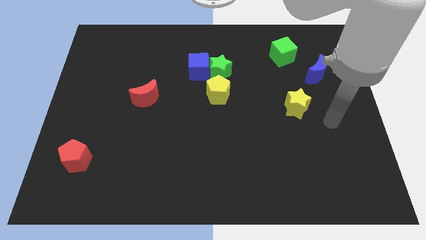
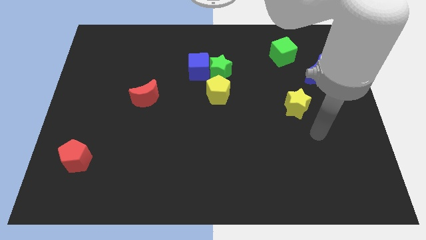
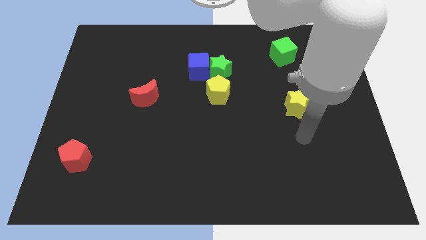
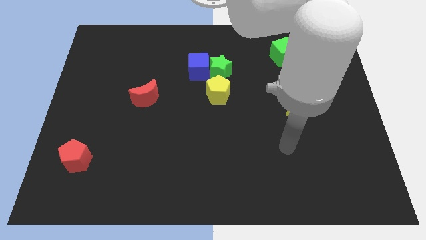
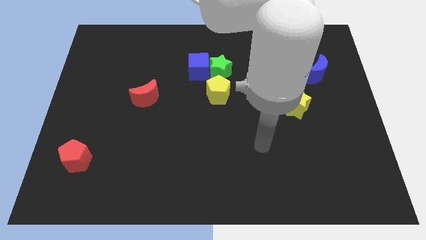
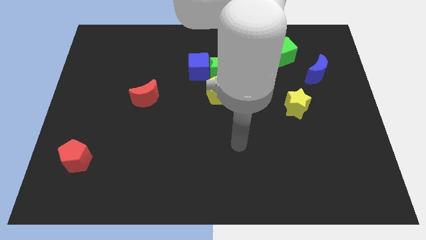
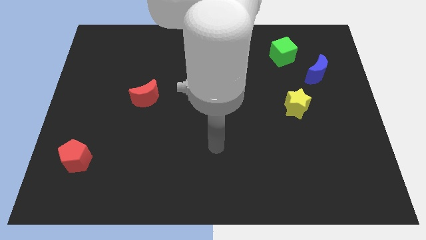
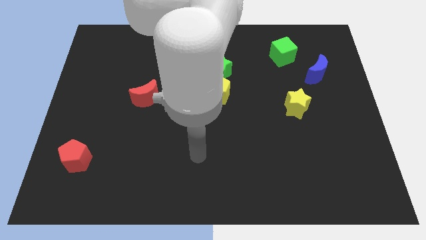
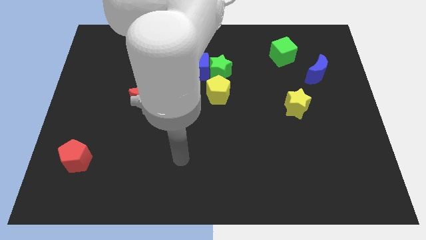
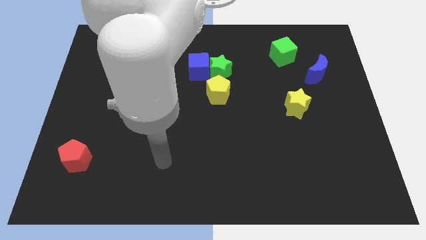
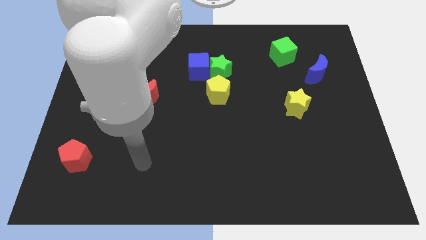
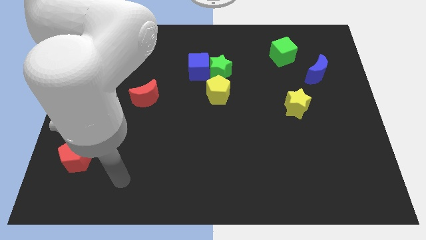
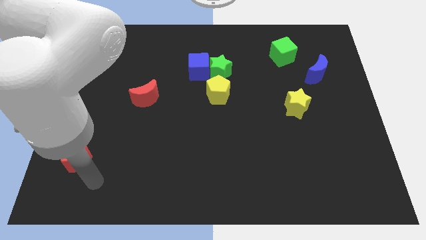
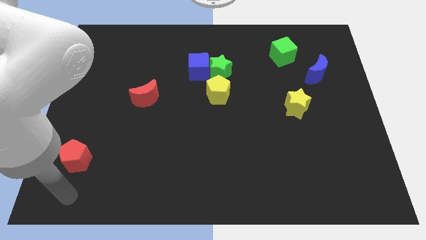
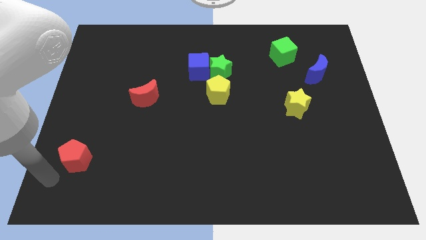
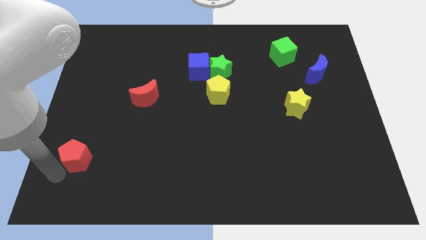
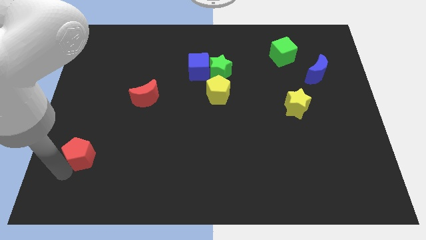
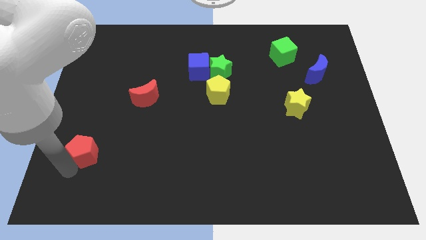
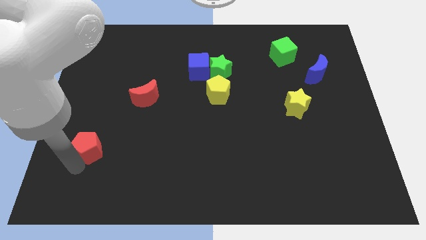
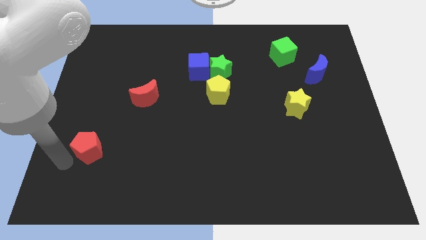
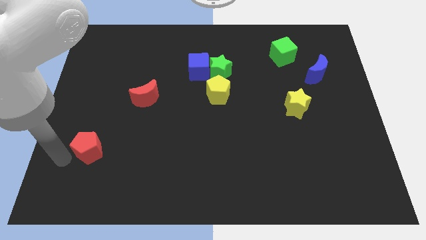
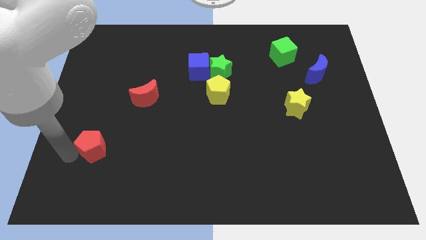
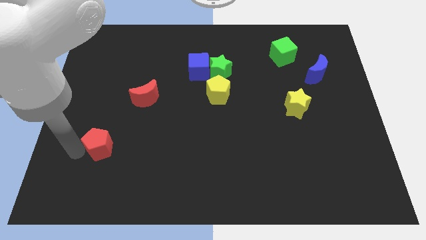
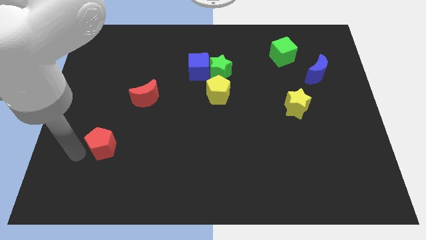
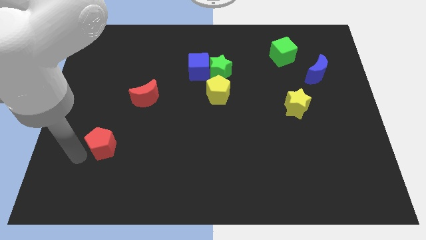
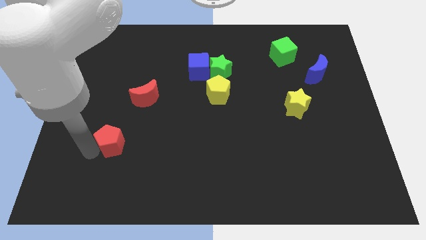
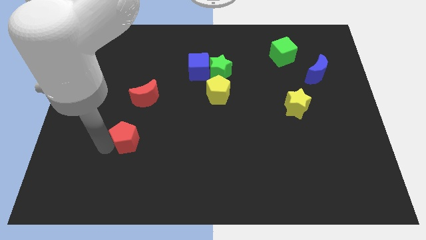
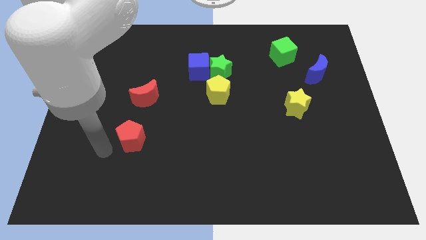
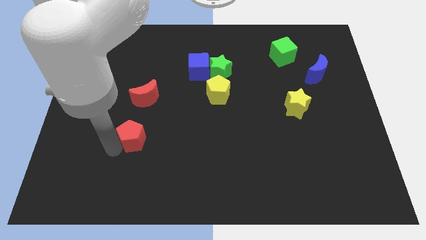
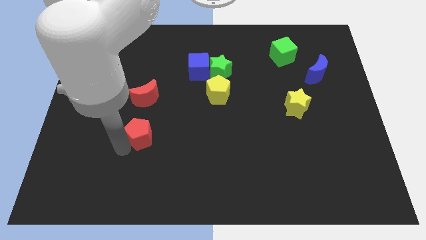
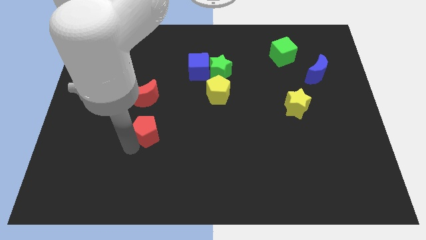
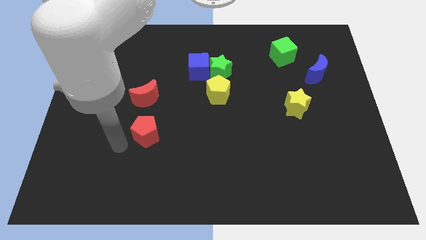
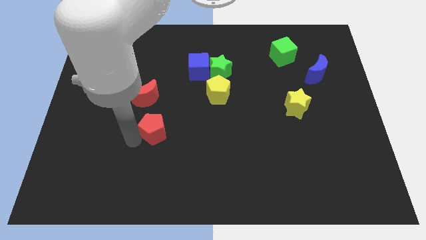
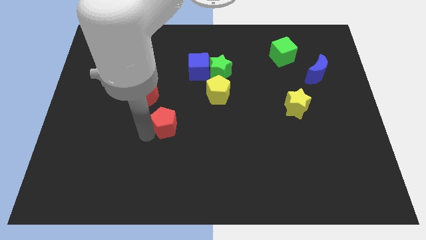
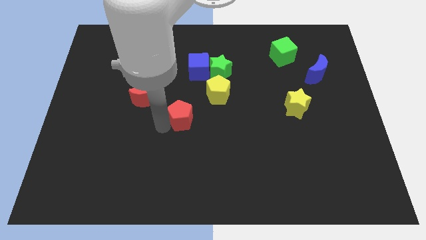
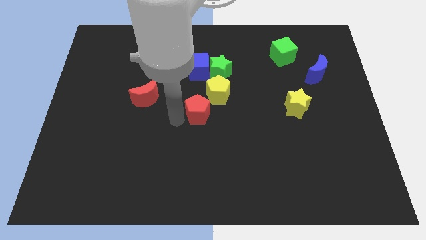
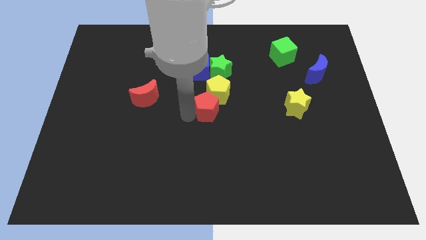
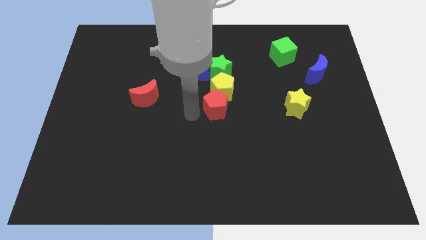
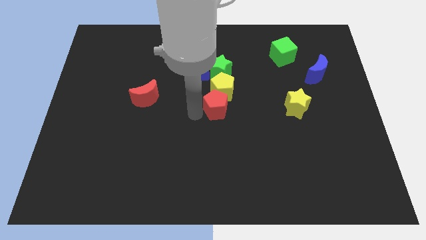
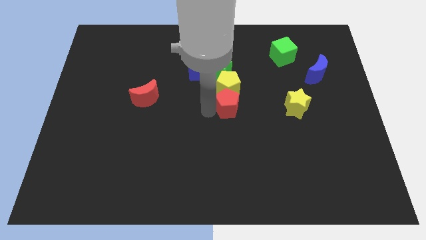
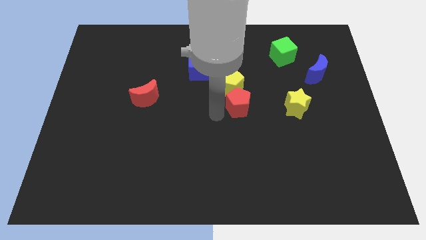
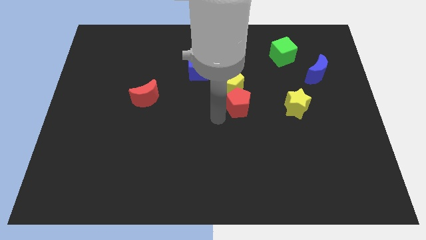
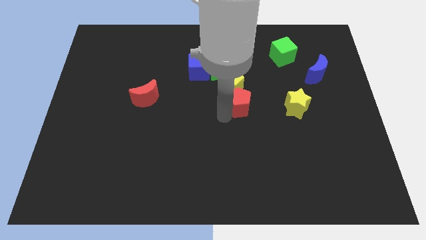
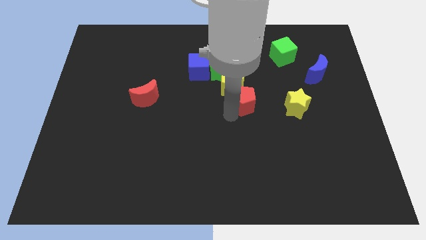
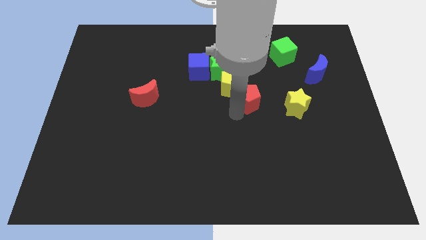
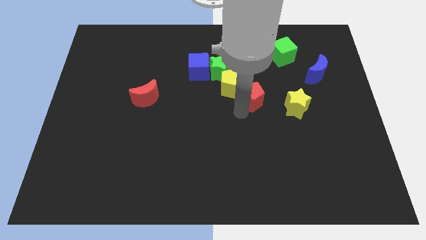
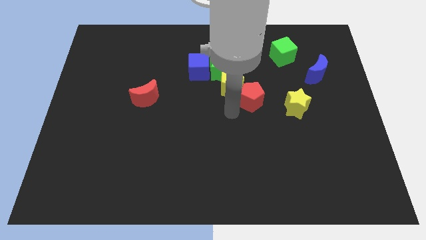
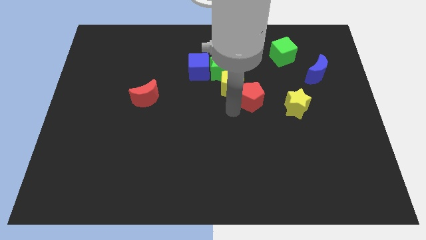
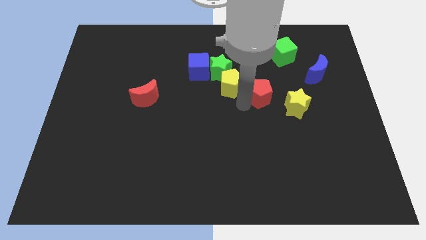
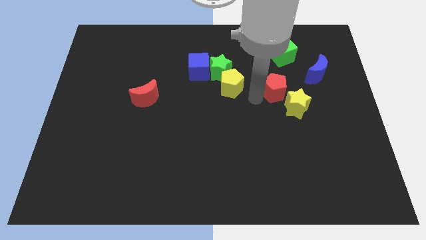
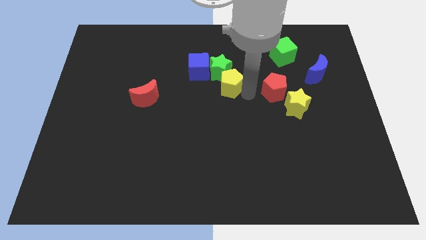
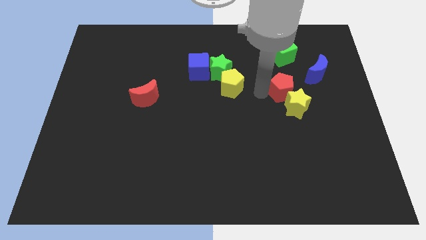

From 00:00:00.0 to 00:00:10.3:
move the red pentagon to the bottom left side of the blue moon

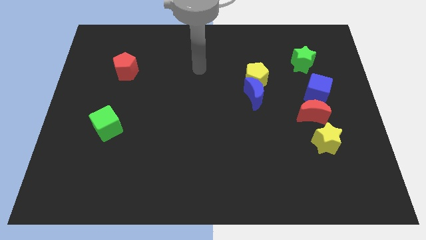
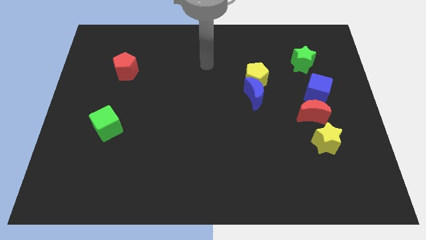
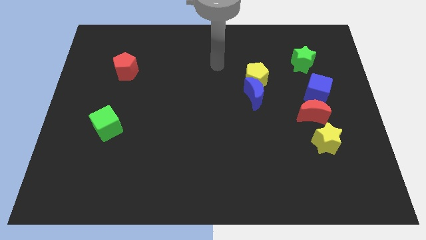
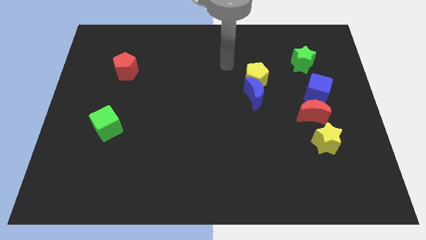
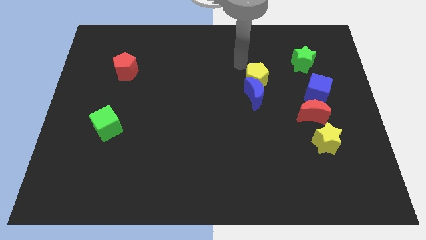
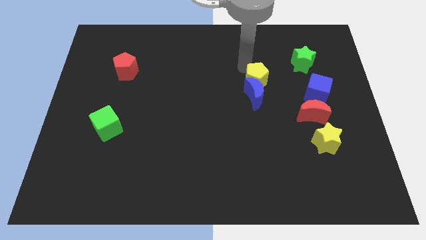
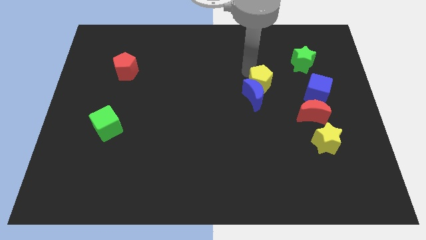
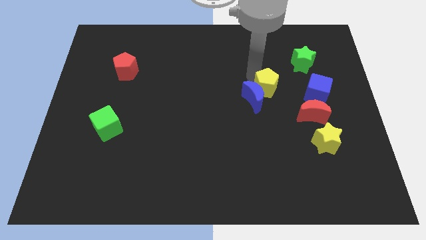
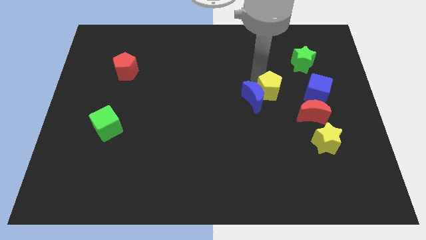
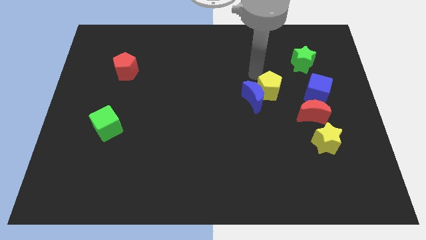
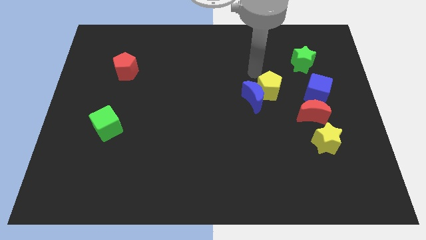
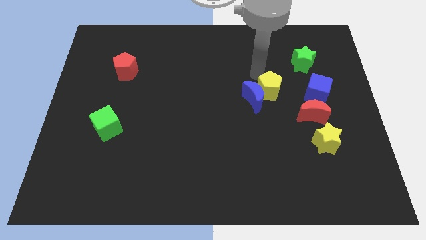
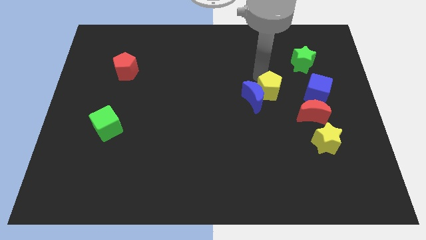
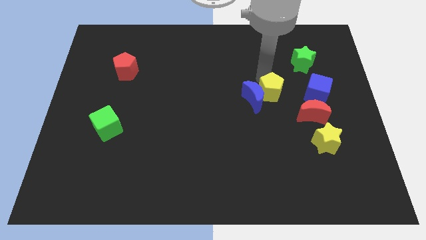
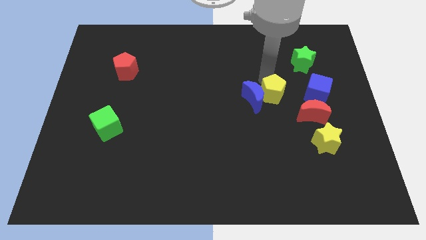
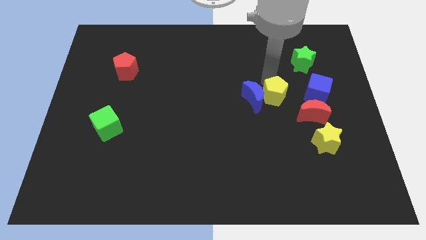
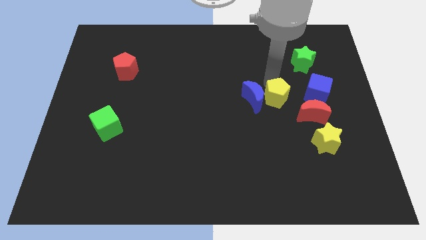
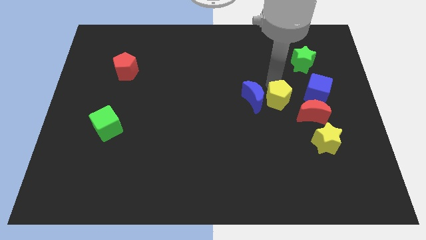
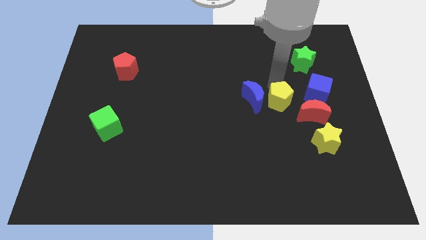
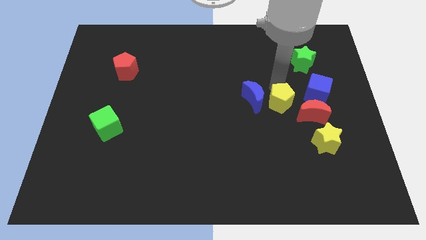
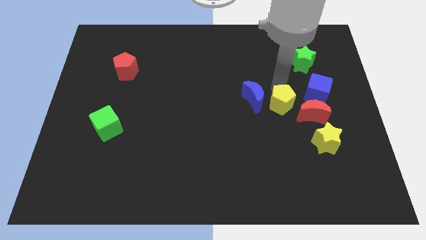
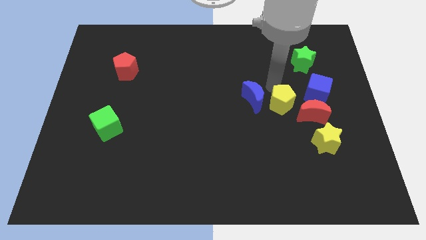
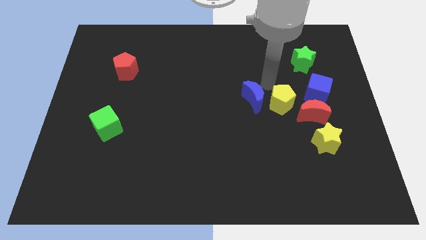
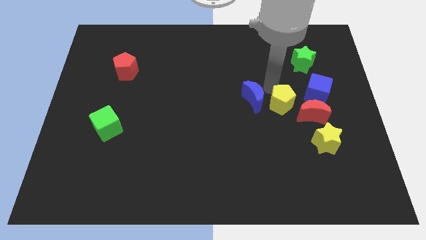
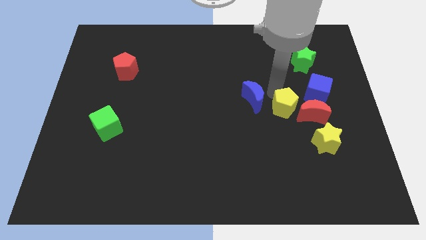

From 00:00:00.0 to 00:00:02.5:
slide the yellow pentagon diagonally up and to the left of the yellow star
